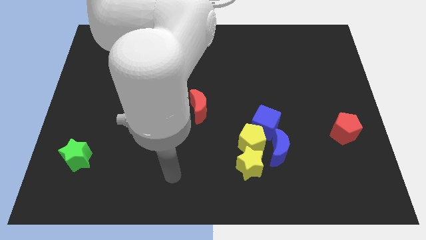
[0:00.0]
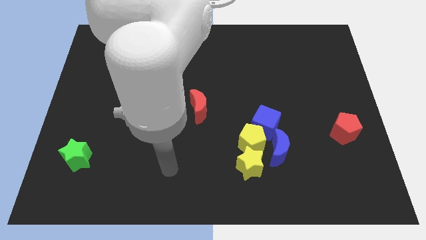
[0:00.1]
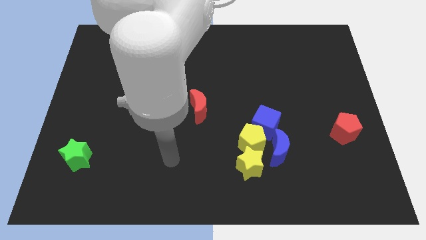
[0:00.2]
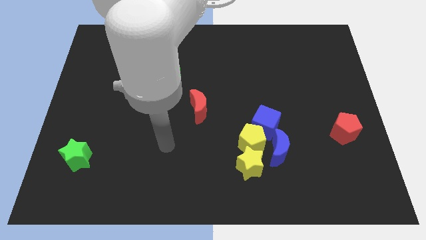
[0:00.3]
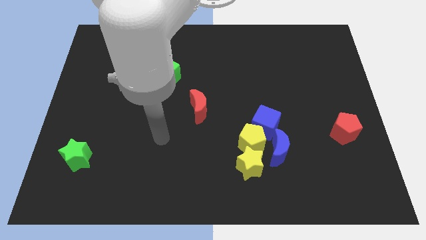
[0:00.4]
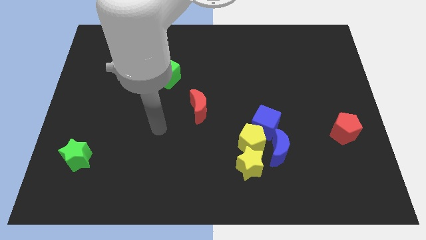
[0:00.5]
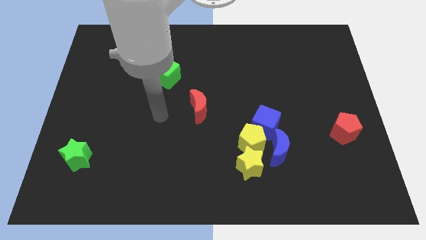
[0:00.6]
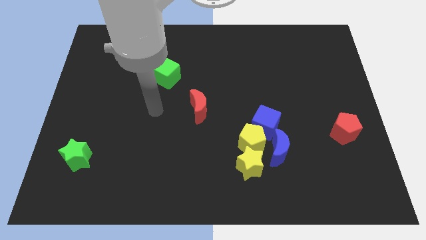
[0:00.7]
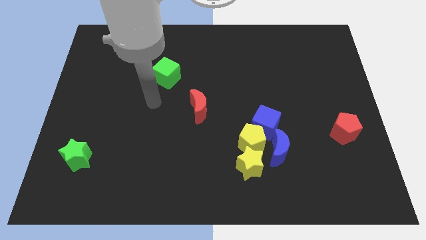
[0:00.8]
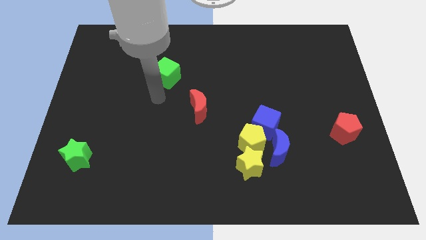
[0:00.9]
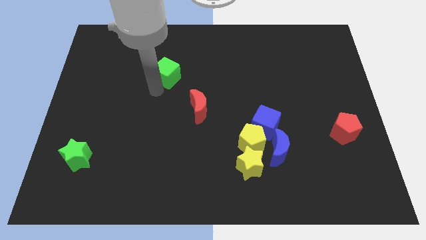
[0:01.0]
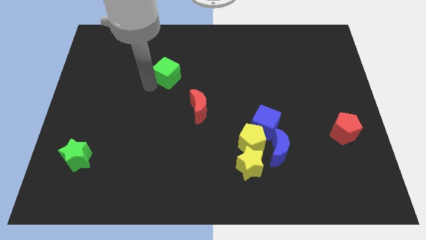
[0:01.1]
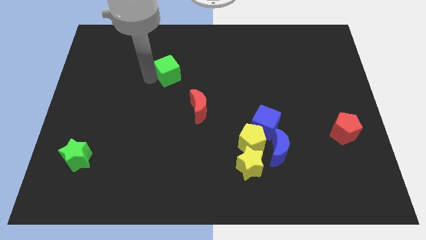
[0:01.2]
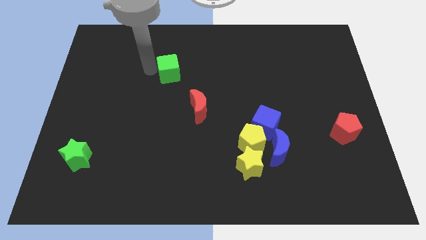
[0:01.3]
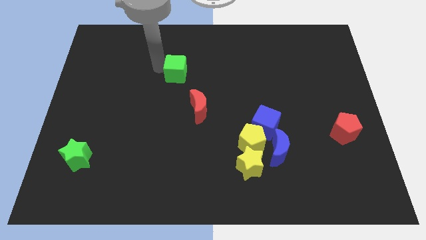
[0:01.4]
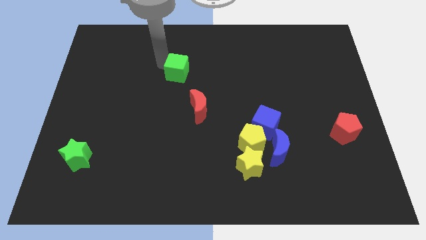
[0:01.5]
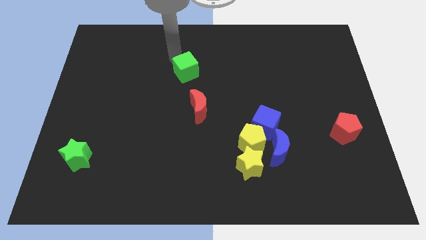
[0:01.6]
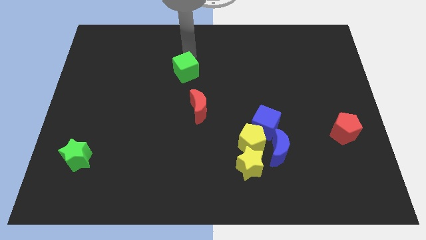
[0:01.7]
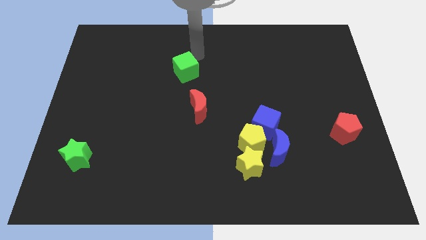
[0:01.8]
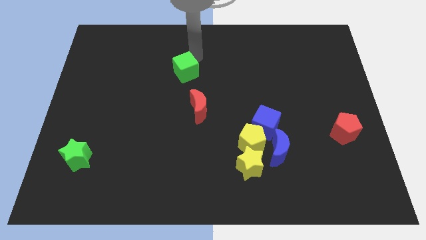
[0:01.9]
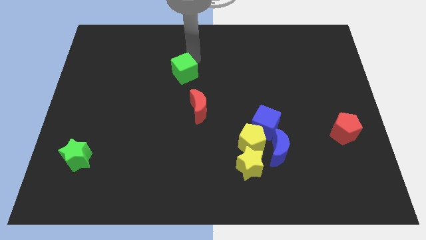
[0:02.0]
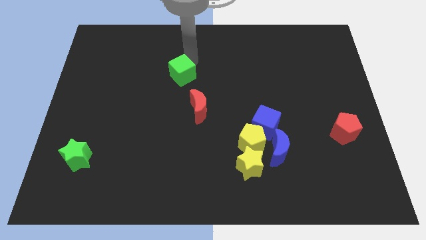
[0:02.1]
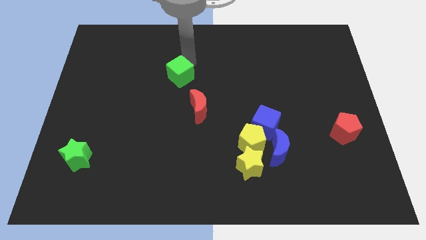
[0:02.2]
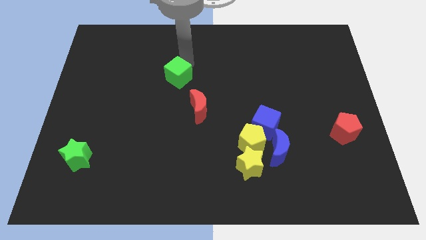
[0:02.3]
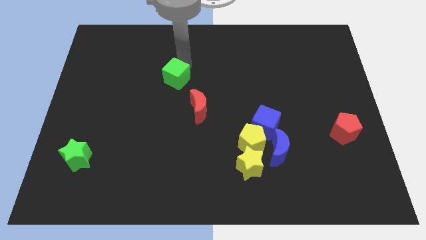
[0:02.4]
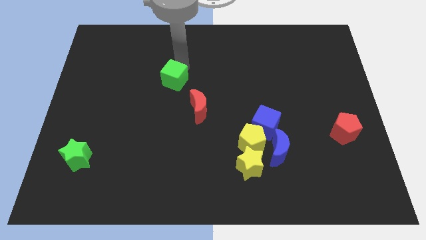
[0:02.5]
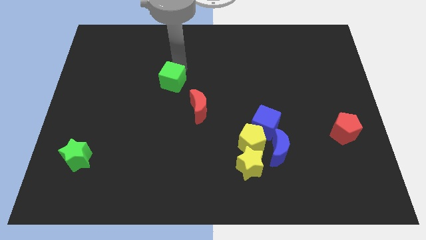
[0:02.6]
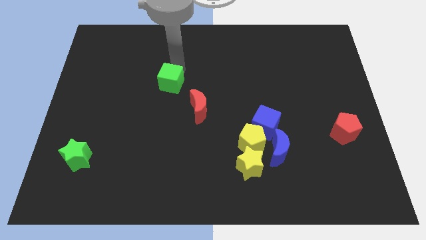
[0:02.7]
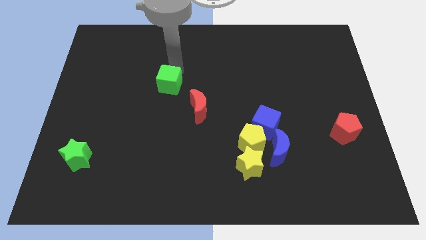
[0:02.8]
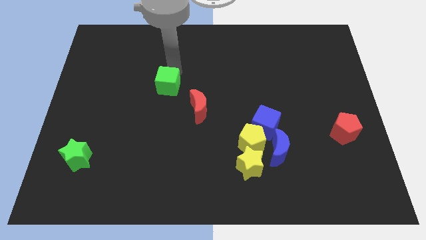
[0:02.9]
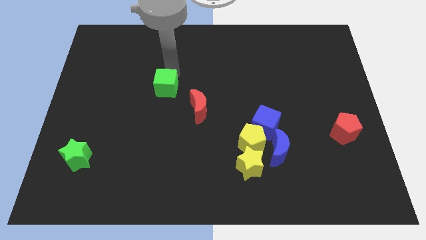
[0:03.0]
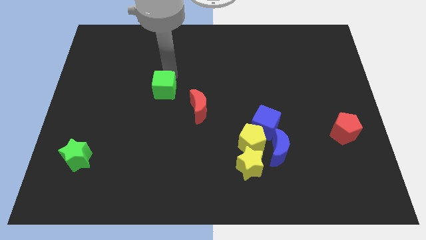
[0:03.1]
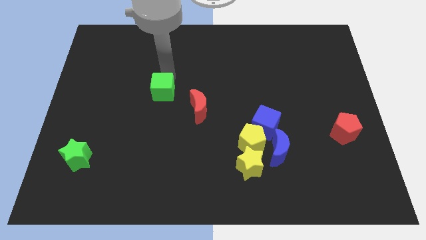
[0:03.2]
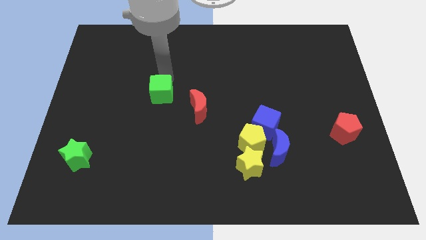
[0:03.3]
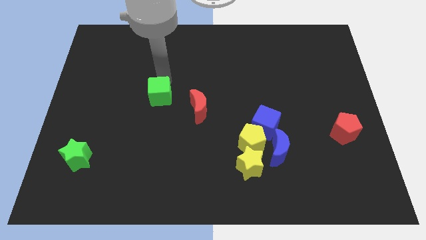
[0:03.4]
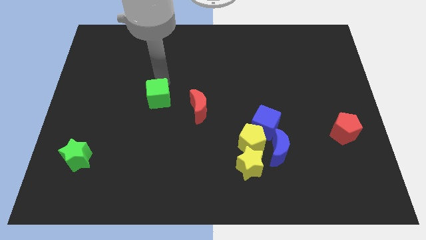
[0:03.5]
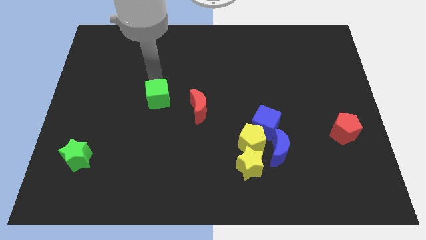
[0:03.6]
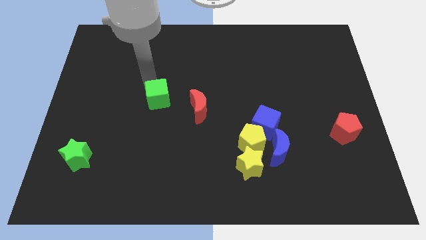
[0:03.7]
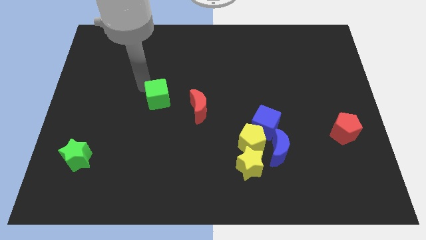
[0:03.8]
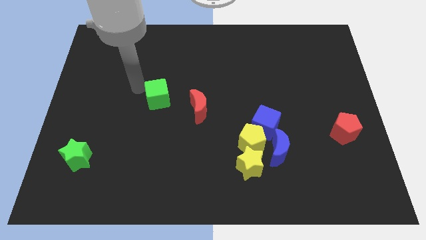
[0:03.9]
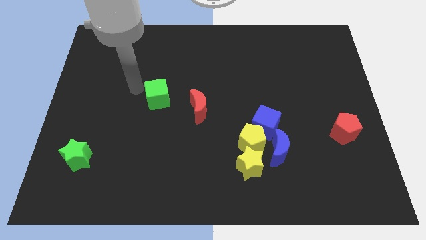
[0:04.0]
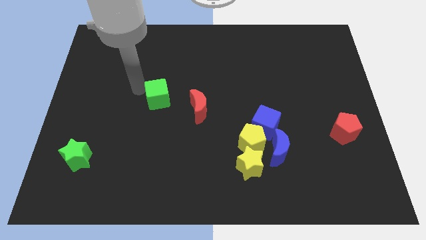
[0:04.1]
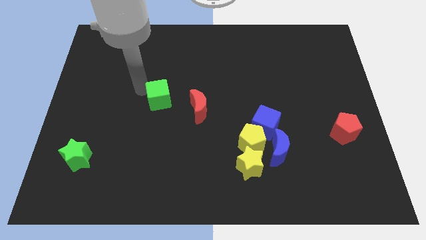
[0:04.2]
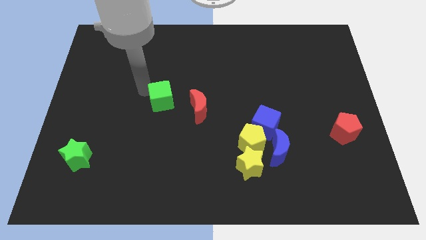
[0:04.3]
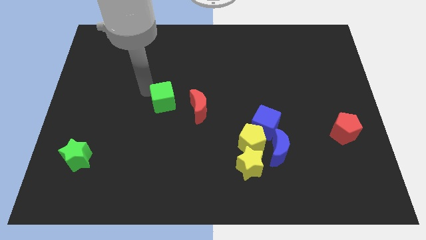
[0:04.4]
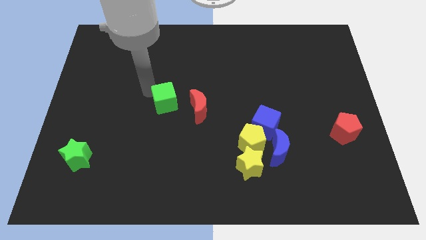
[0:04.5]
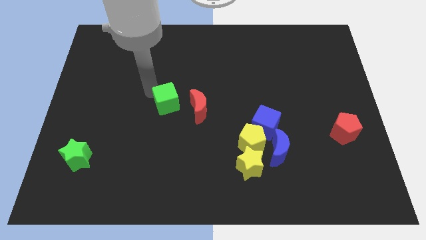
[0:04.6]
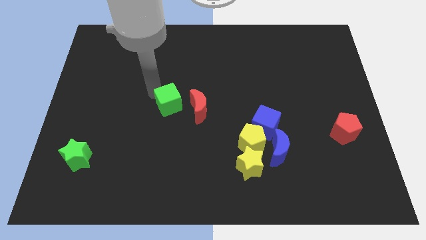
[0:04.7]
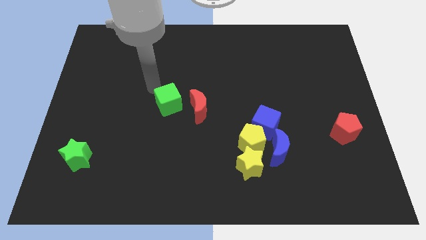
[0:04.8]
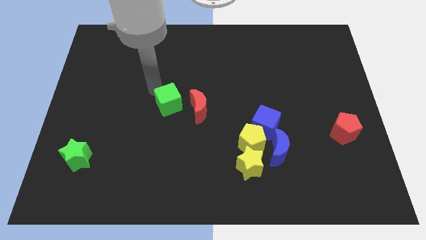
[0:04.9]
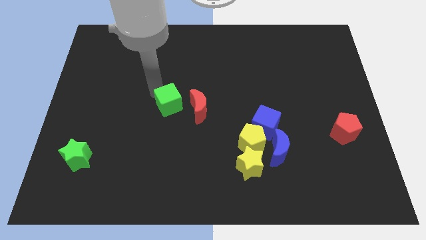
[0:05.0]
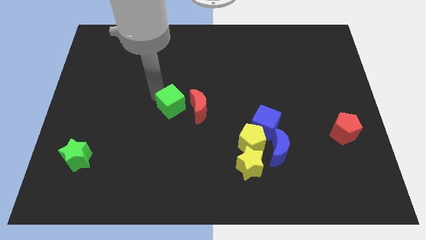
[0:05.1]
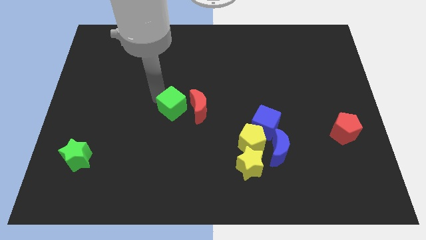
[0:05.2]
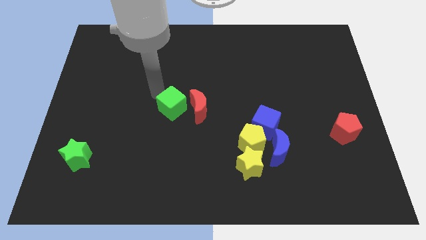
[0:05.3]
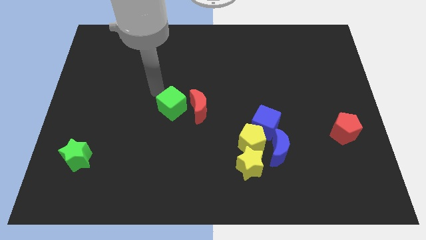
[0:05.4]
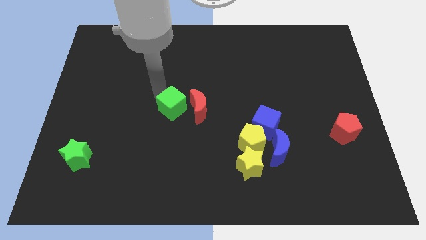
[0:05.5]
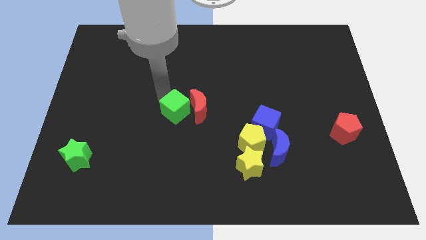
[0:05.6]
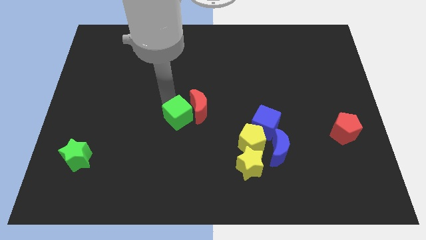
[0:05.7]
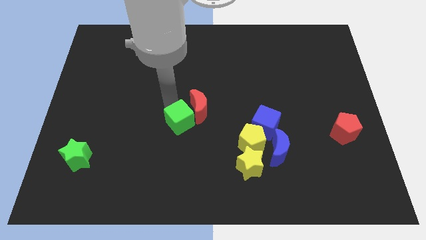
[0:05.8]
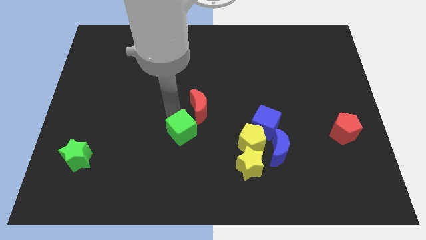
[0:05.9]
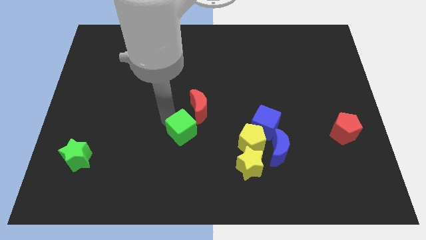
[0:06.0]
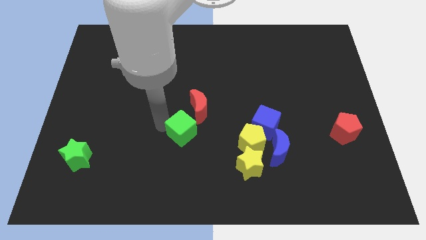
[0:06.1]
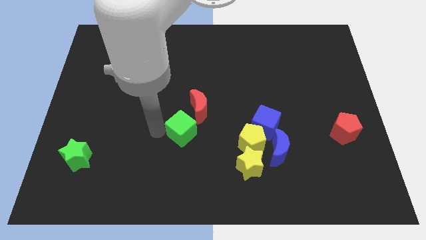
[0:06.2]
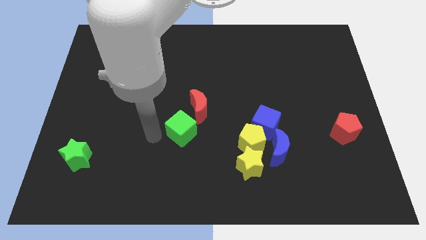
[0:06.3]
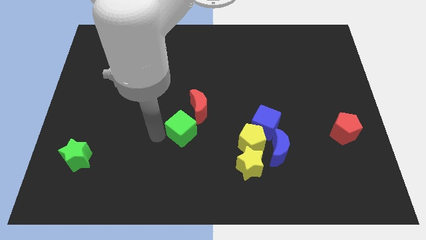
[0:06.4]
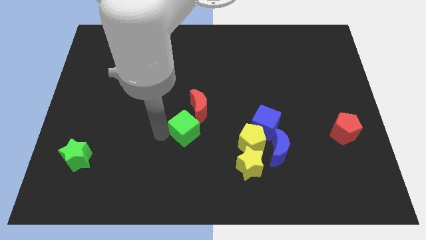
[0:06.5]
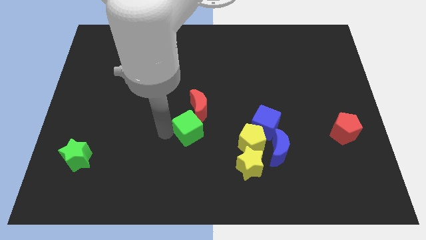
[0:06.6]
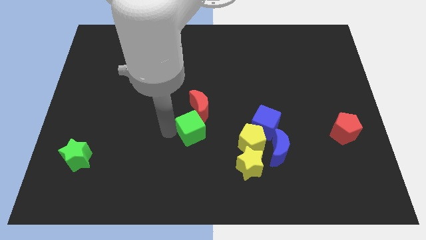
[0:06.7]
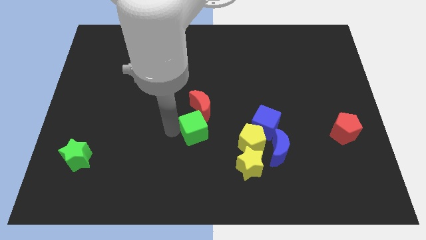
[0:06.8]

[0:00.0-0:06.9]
slide the green cube left of the blue cube

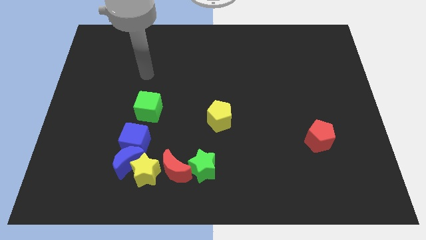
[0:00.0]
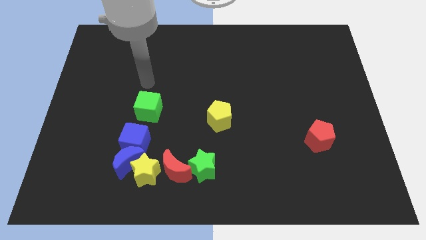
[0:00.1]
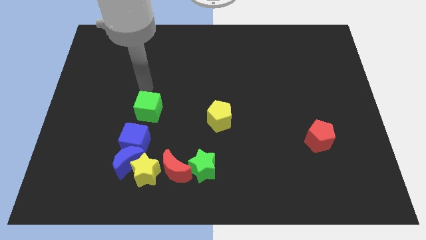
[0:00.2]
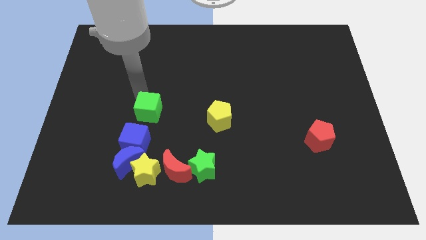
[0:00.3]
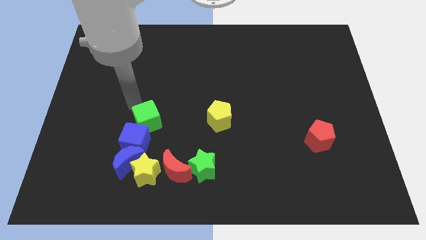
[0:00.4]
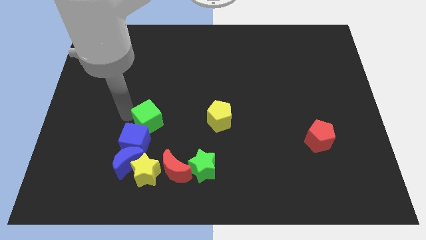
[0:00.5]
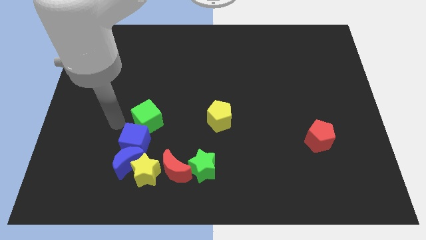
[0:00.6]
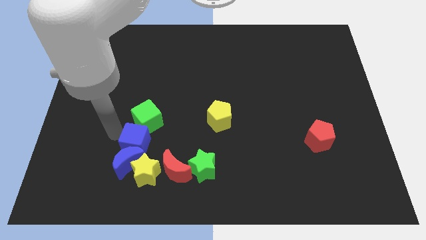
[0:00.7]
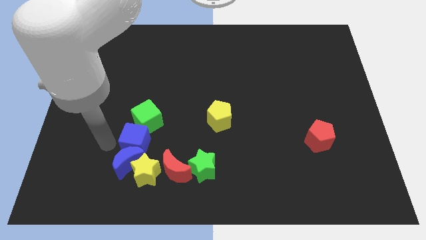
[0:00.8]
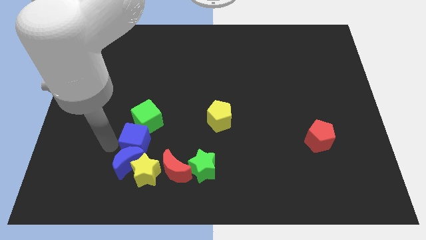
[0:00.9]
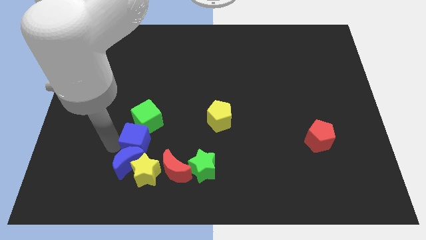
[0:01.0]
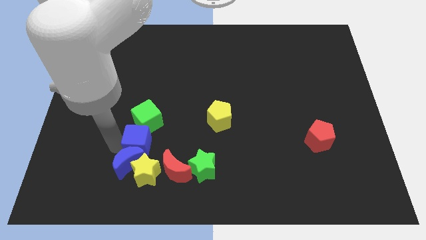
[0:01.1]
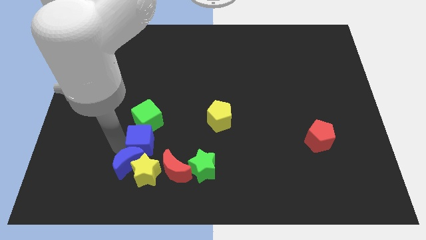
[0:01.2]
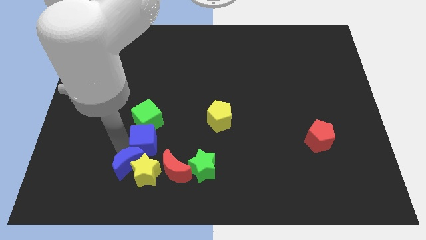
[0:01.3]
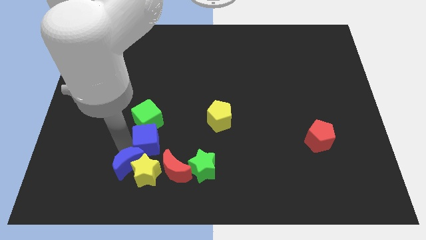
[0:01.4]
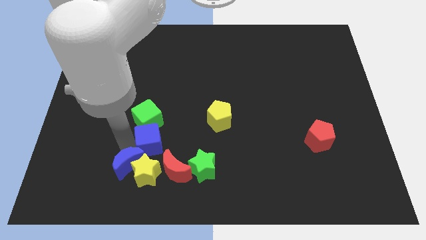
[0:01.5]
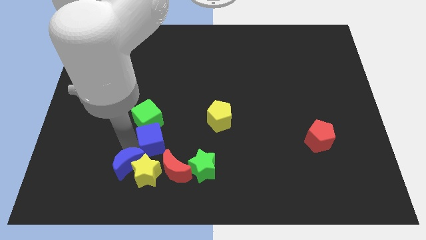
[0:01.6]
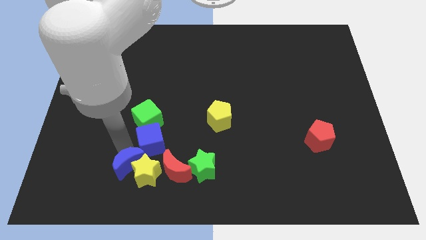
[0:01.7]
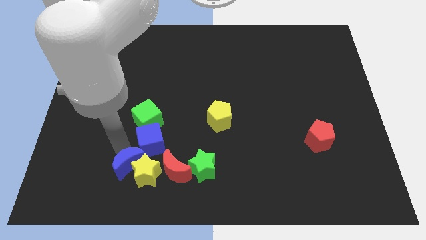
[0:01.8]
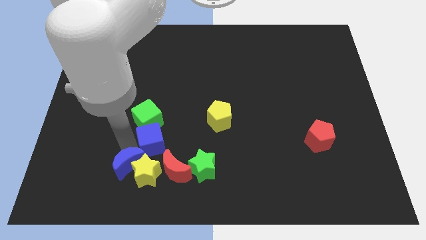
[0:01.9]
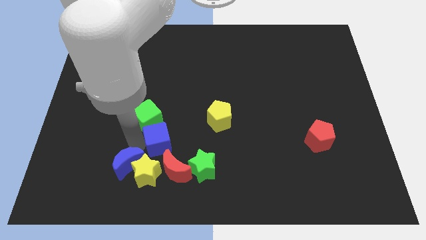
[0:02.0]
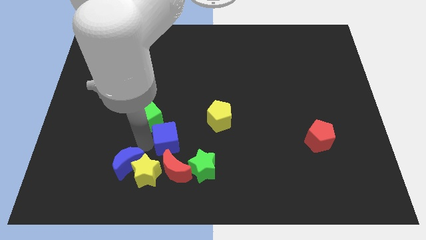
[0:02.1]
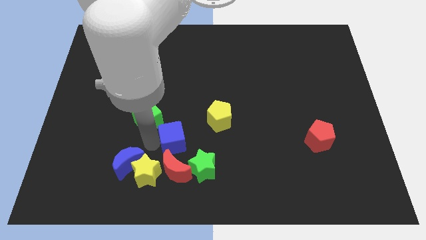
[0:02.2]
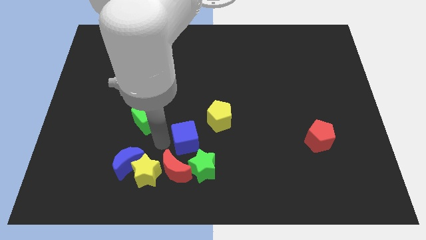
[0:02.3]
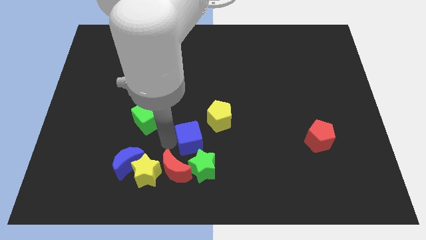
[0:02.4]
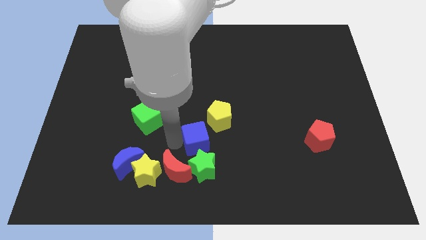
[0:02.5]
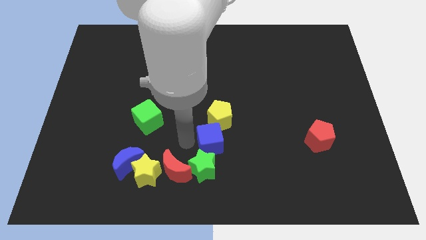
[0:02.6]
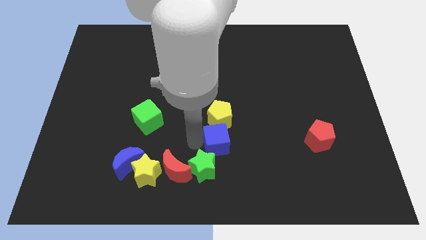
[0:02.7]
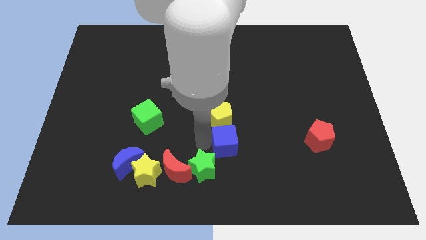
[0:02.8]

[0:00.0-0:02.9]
move the blue cube to the bottom right side of the yellow pentagon
